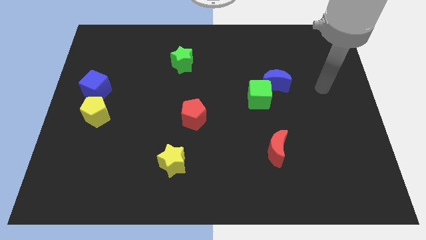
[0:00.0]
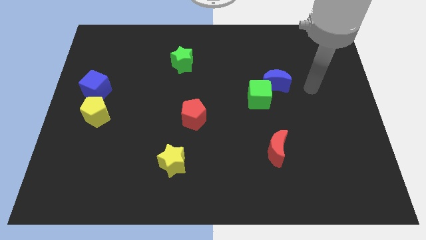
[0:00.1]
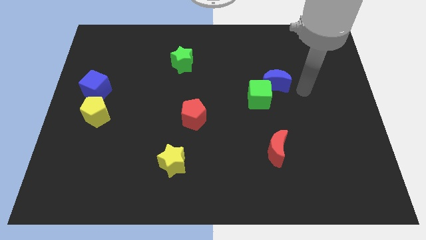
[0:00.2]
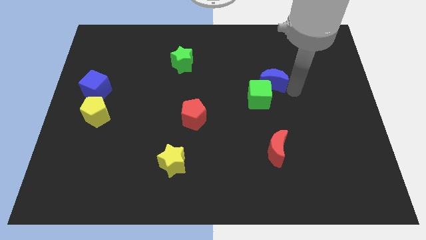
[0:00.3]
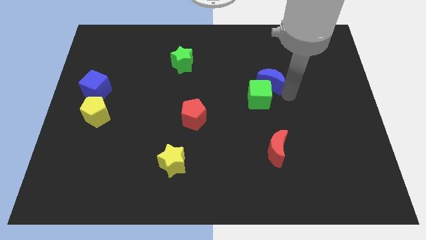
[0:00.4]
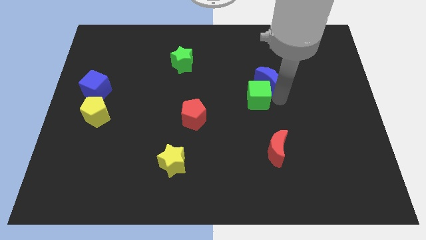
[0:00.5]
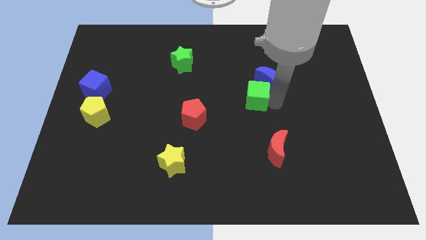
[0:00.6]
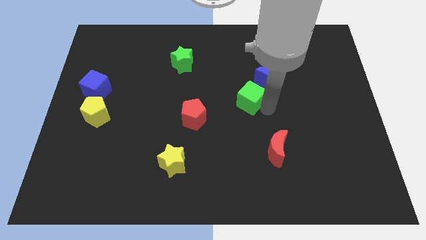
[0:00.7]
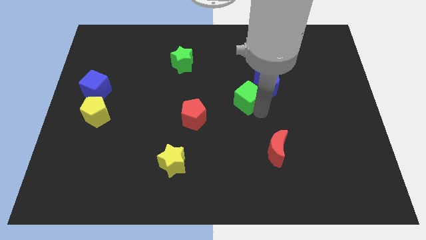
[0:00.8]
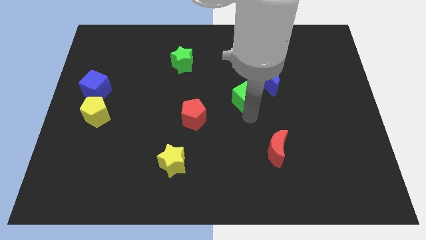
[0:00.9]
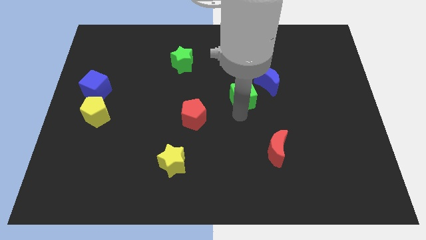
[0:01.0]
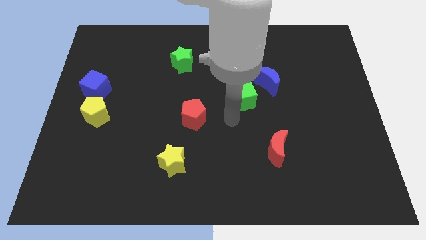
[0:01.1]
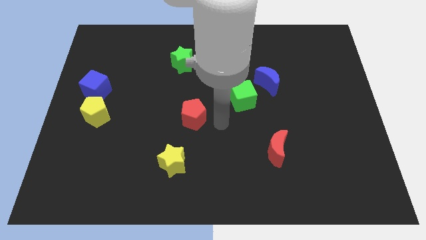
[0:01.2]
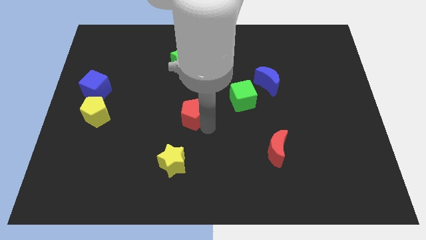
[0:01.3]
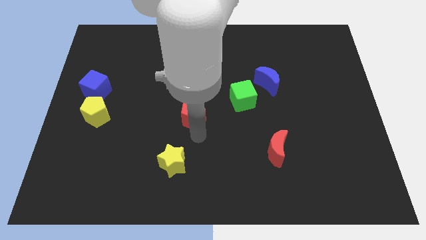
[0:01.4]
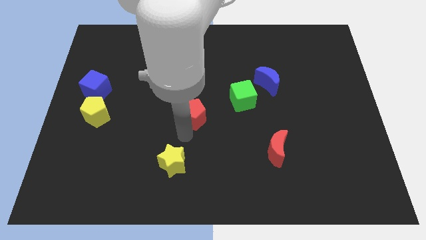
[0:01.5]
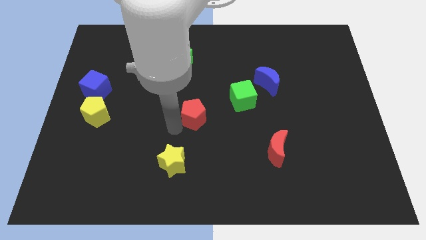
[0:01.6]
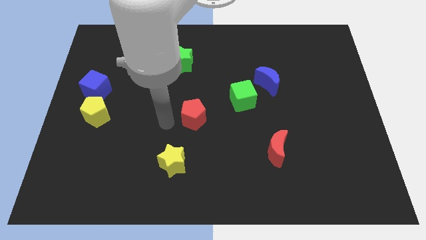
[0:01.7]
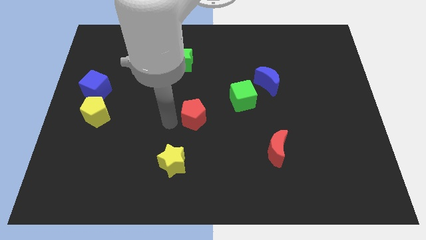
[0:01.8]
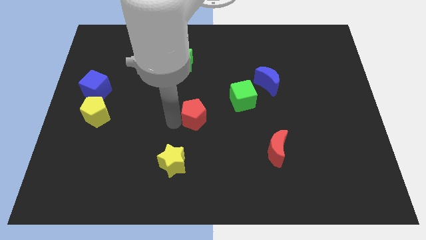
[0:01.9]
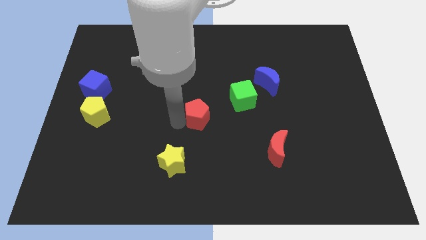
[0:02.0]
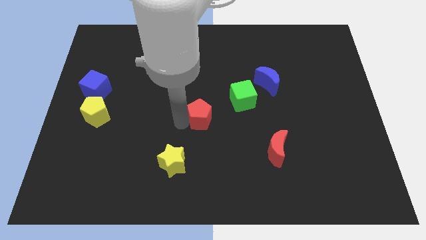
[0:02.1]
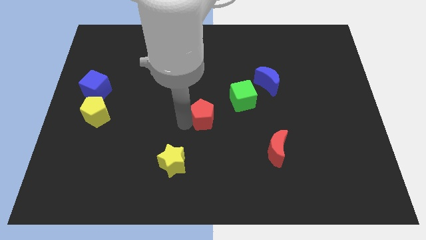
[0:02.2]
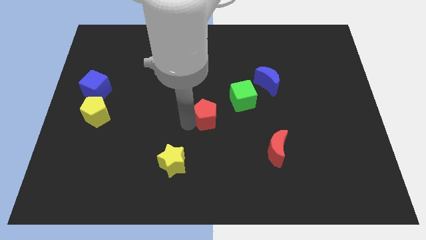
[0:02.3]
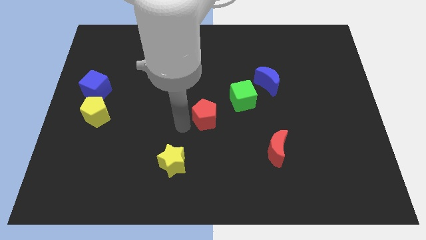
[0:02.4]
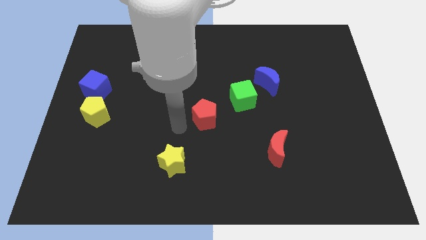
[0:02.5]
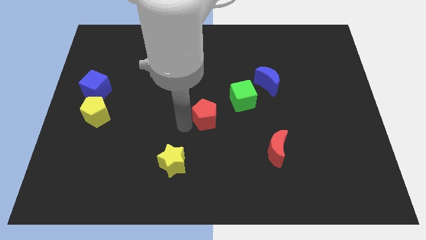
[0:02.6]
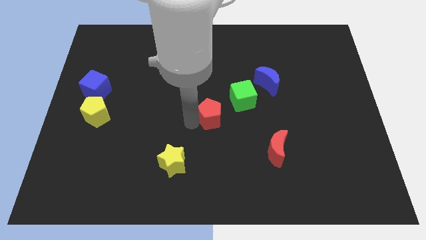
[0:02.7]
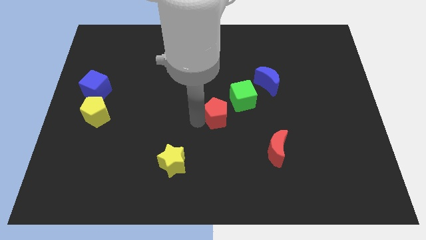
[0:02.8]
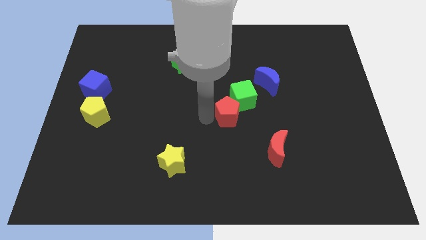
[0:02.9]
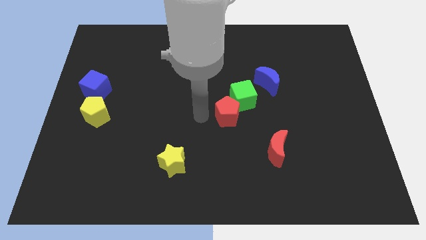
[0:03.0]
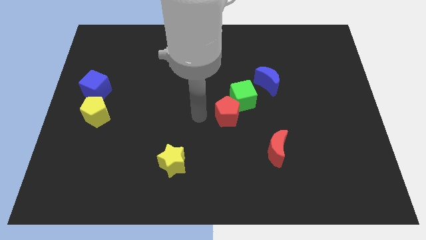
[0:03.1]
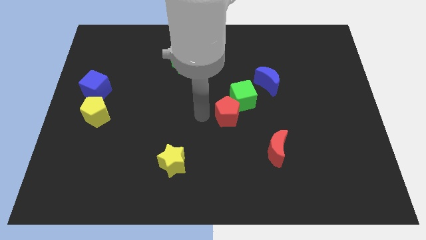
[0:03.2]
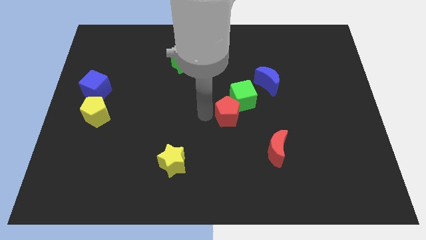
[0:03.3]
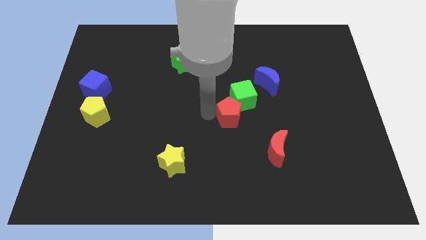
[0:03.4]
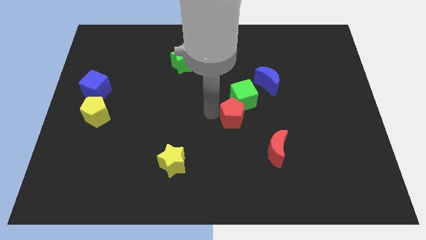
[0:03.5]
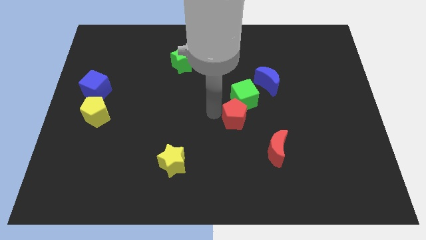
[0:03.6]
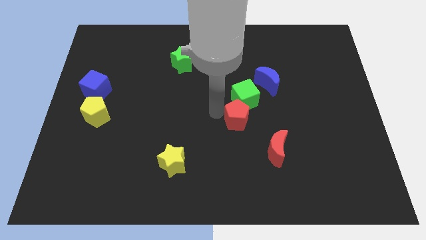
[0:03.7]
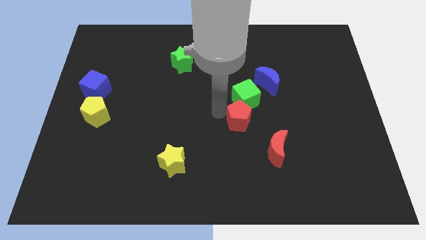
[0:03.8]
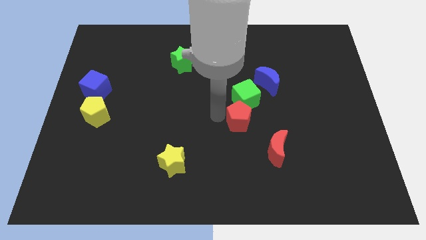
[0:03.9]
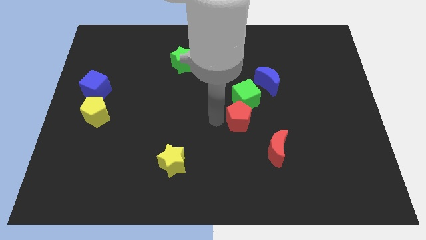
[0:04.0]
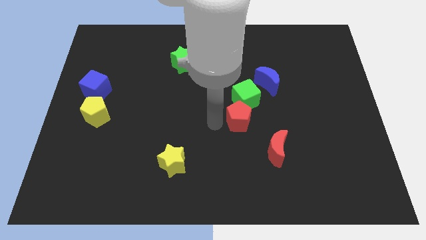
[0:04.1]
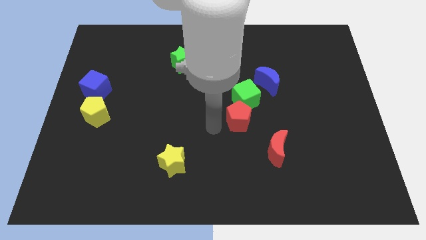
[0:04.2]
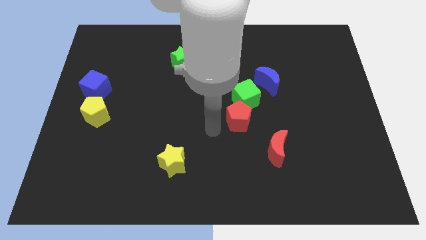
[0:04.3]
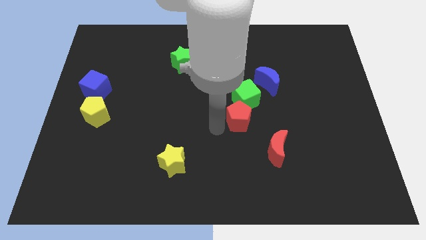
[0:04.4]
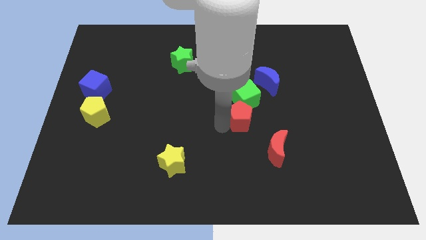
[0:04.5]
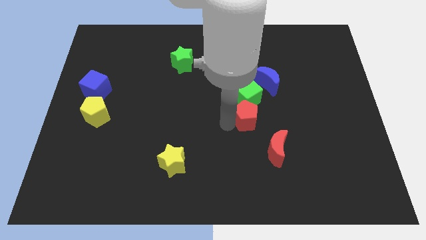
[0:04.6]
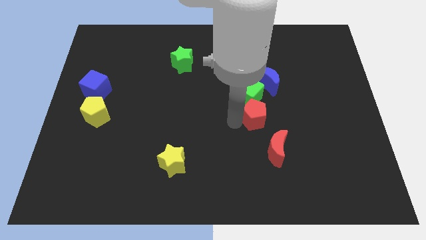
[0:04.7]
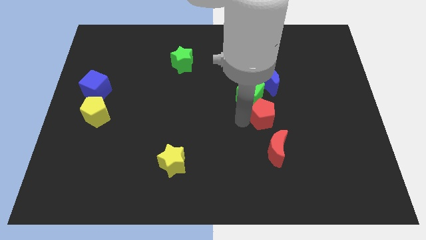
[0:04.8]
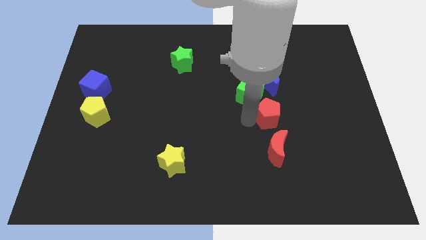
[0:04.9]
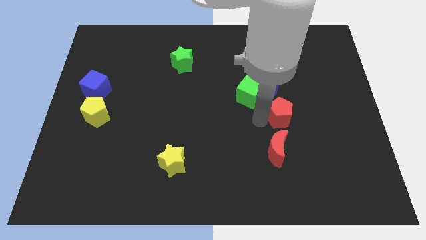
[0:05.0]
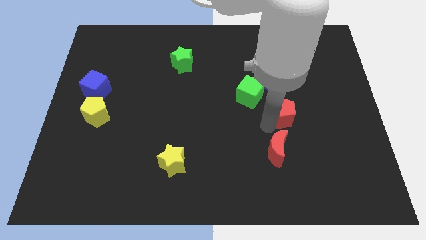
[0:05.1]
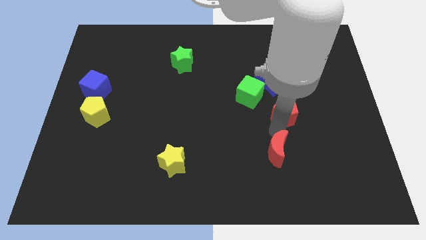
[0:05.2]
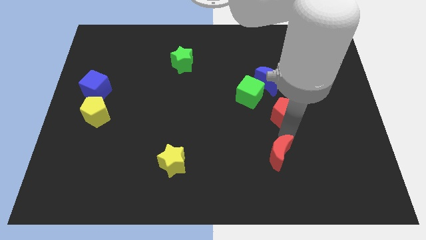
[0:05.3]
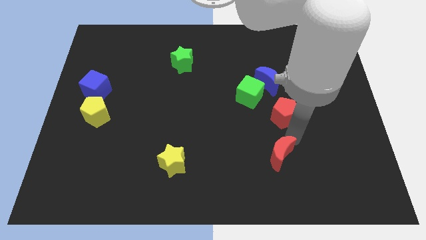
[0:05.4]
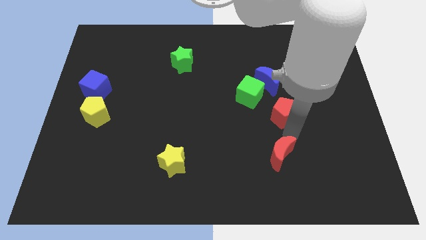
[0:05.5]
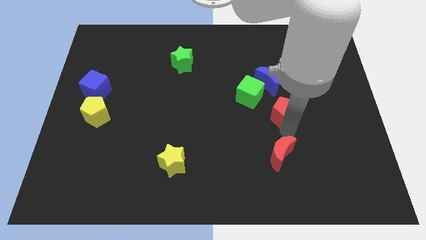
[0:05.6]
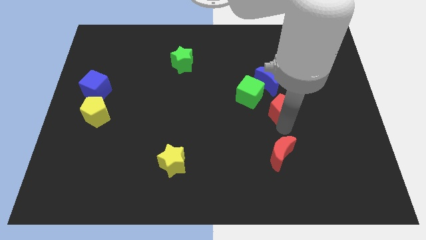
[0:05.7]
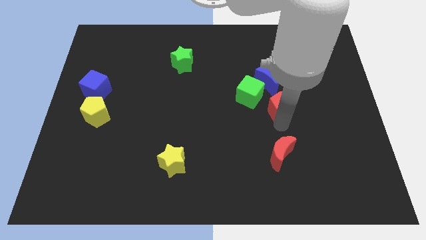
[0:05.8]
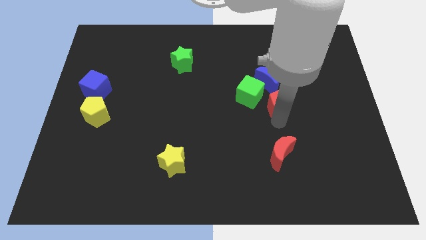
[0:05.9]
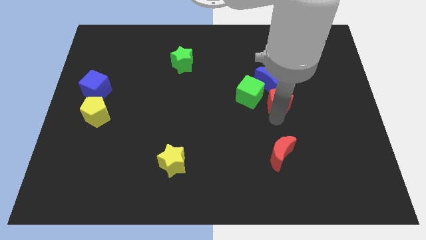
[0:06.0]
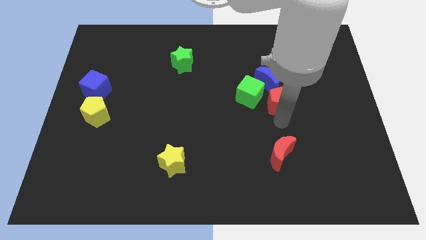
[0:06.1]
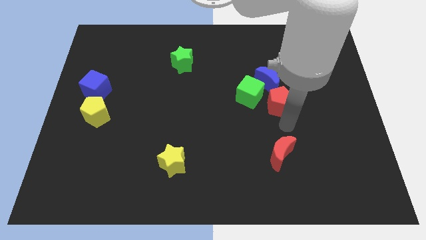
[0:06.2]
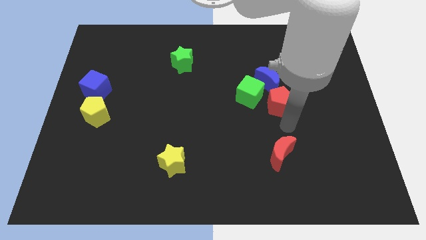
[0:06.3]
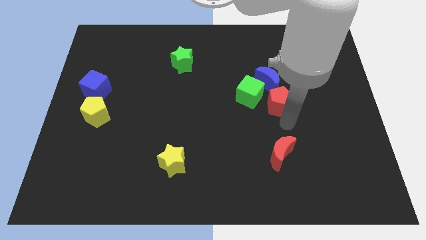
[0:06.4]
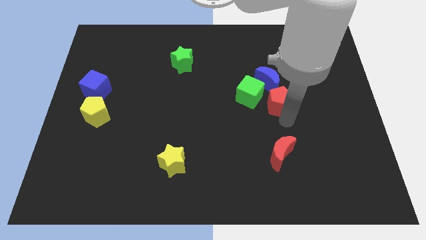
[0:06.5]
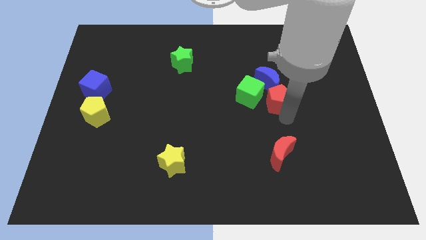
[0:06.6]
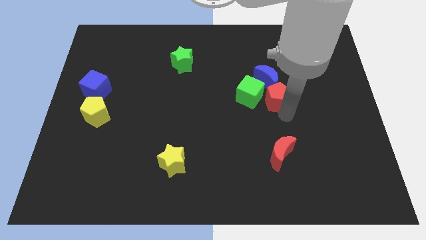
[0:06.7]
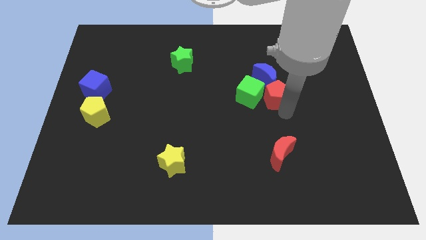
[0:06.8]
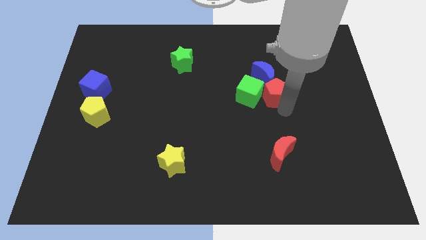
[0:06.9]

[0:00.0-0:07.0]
move the red pentagon to the blue moon
